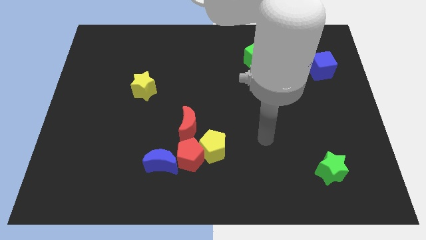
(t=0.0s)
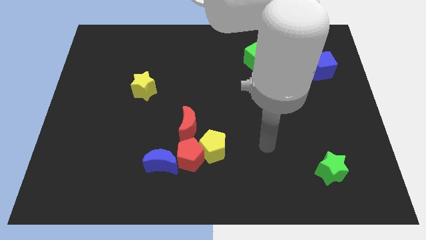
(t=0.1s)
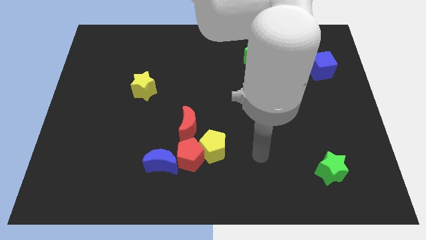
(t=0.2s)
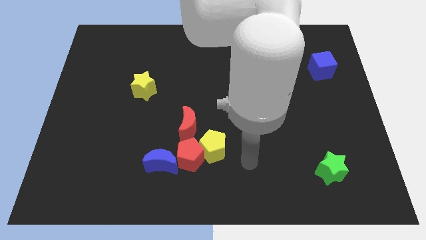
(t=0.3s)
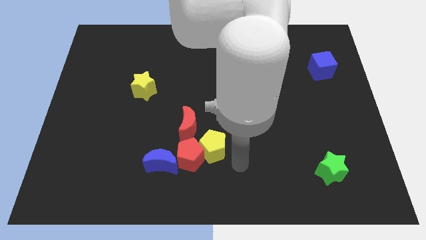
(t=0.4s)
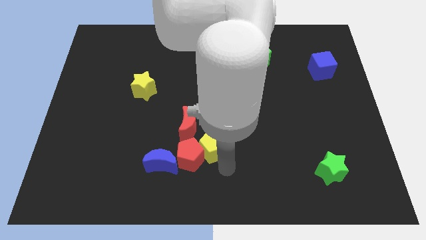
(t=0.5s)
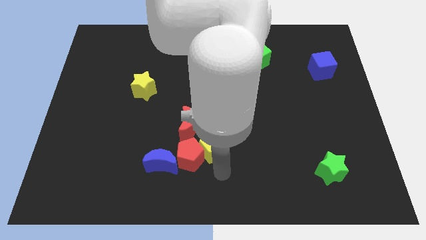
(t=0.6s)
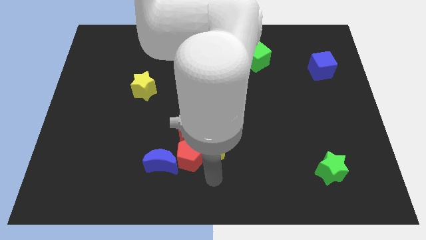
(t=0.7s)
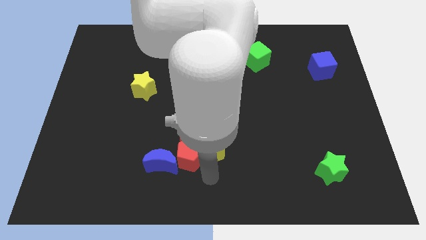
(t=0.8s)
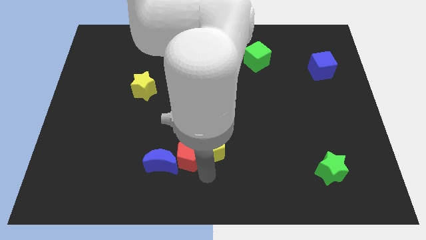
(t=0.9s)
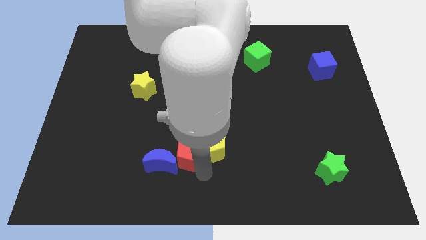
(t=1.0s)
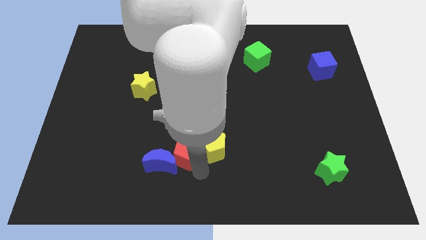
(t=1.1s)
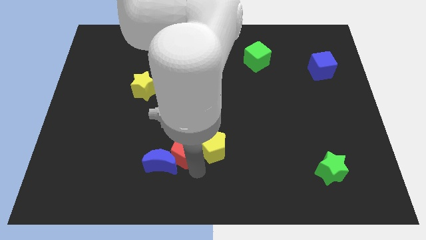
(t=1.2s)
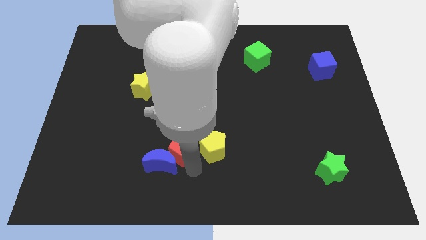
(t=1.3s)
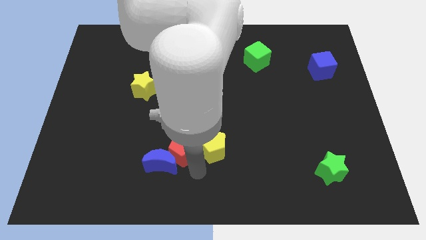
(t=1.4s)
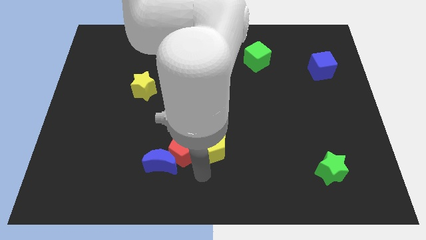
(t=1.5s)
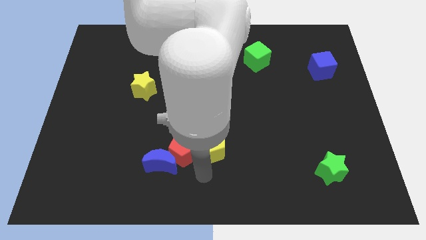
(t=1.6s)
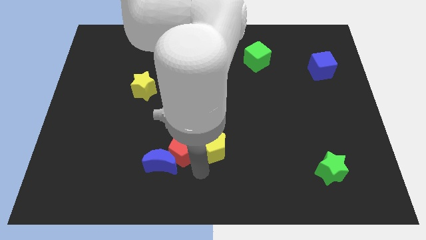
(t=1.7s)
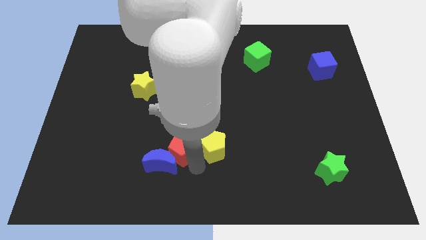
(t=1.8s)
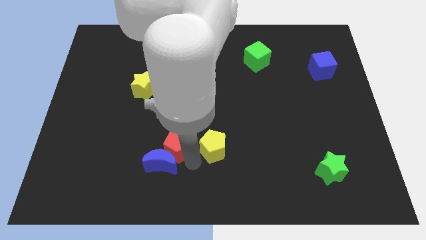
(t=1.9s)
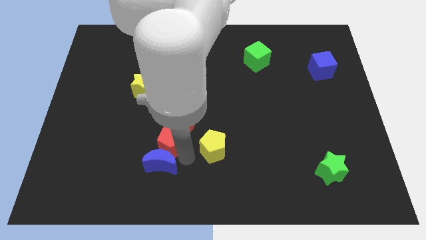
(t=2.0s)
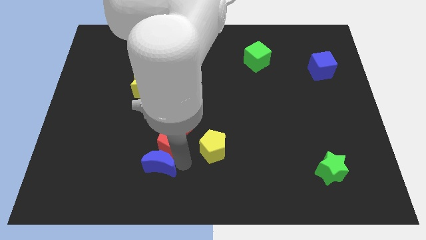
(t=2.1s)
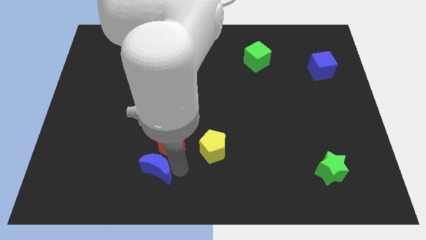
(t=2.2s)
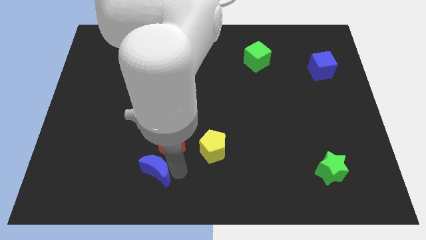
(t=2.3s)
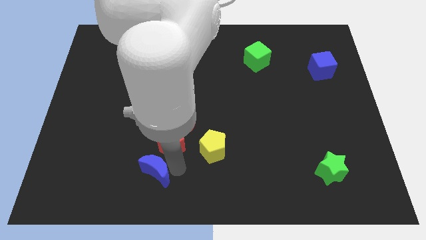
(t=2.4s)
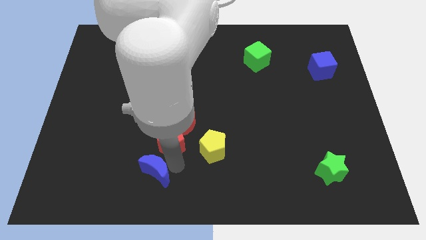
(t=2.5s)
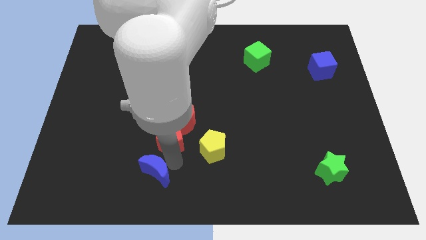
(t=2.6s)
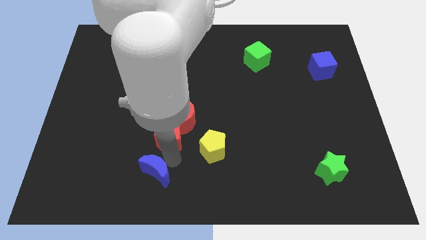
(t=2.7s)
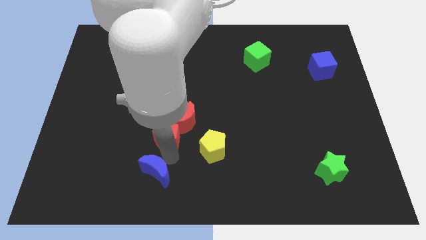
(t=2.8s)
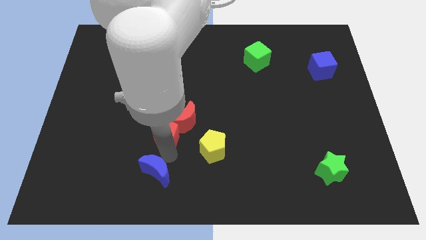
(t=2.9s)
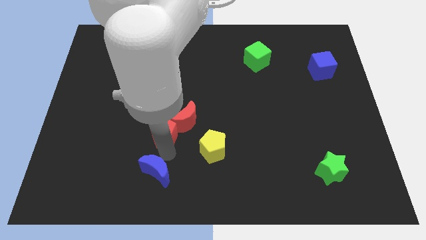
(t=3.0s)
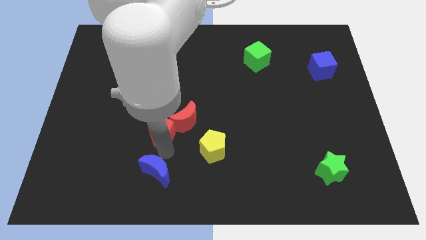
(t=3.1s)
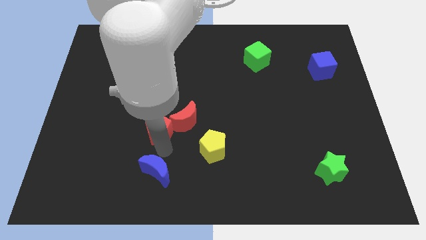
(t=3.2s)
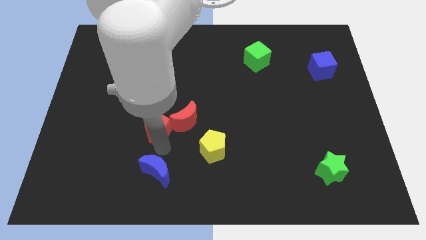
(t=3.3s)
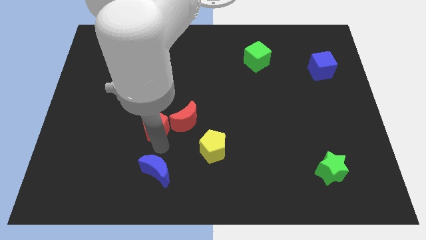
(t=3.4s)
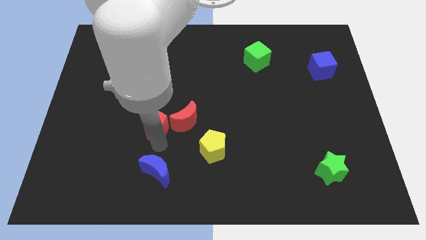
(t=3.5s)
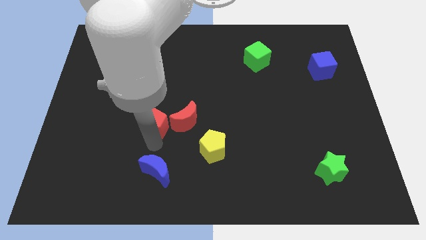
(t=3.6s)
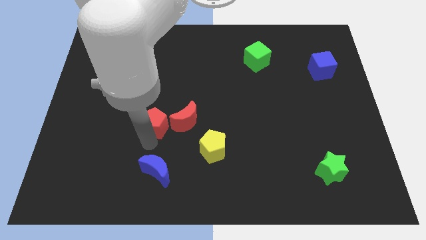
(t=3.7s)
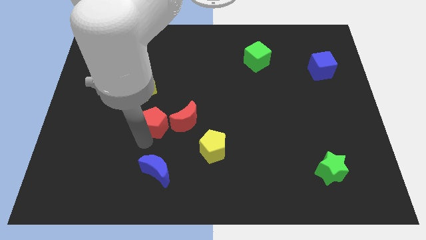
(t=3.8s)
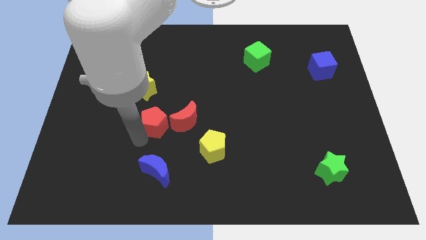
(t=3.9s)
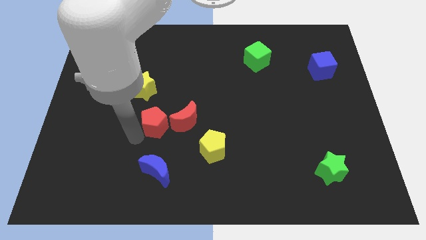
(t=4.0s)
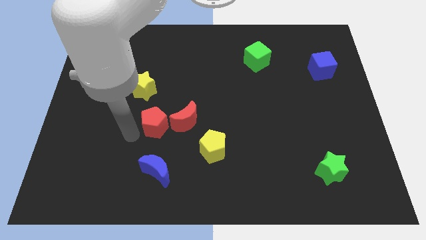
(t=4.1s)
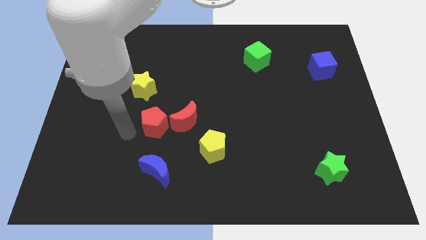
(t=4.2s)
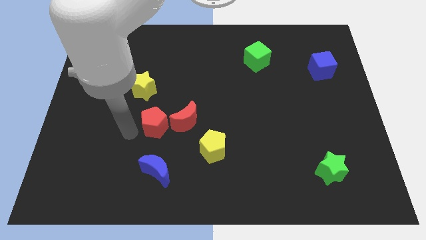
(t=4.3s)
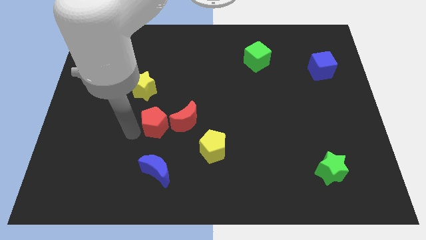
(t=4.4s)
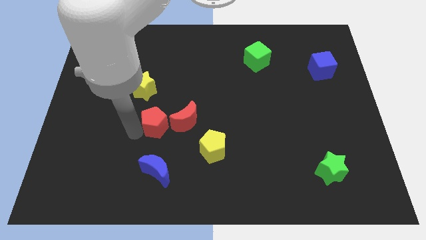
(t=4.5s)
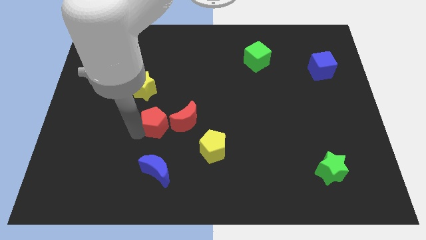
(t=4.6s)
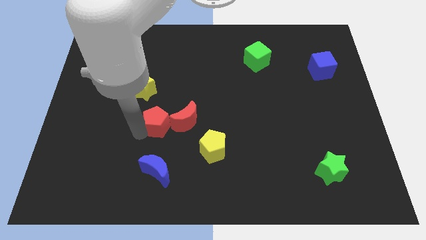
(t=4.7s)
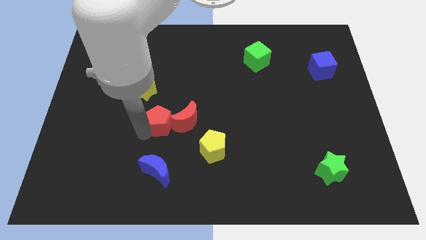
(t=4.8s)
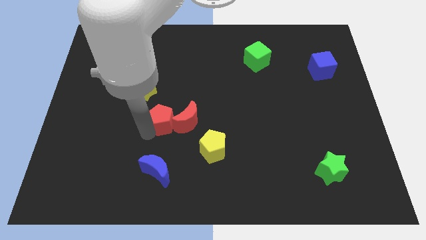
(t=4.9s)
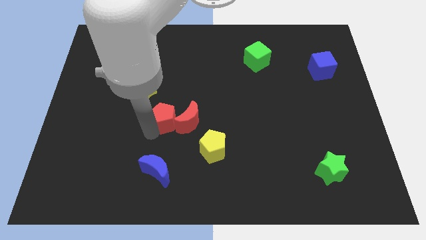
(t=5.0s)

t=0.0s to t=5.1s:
put the red pentagon to the center

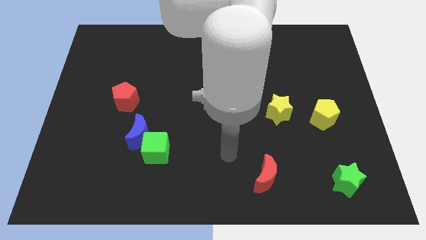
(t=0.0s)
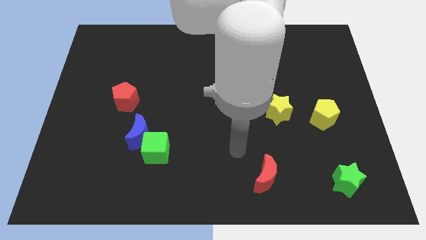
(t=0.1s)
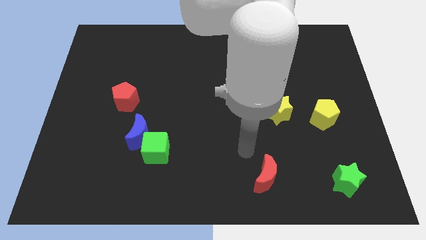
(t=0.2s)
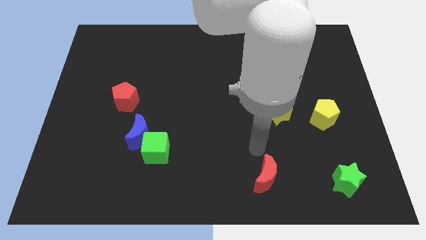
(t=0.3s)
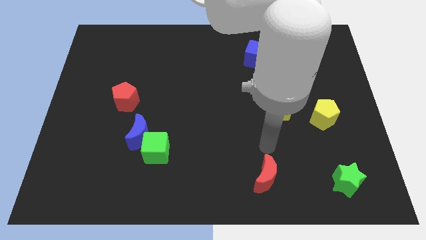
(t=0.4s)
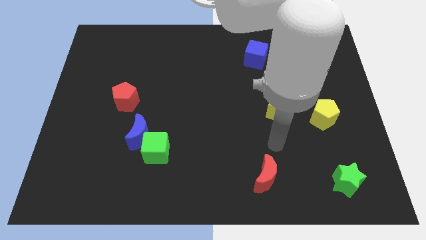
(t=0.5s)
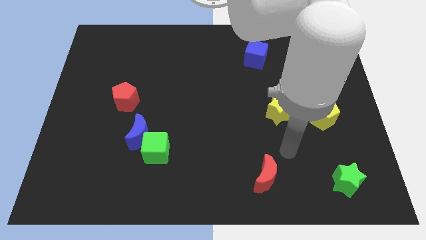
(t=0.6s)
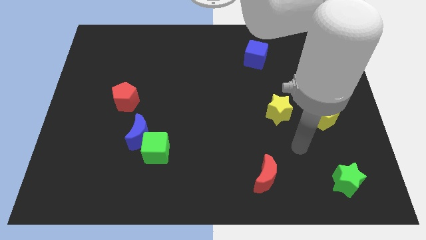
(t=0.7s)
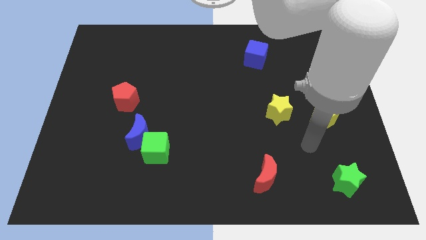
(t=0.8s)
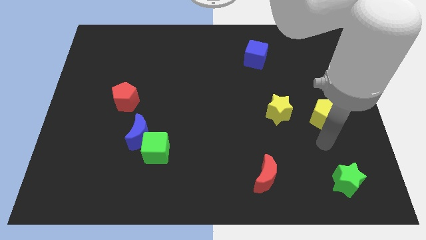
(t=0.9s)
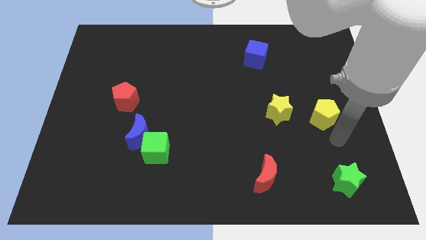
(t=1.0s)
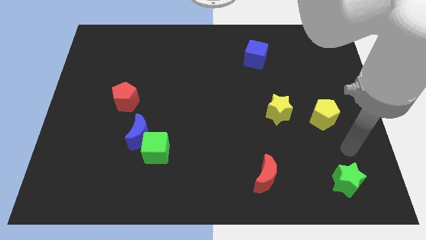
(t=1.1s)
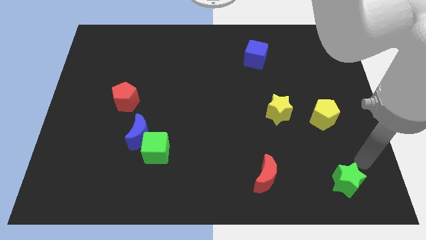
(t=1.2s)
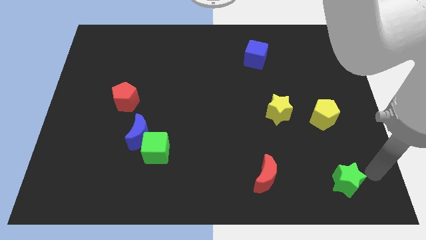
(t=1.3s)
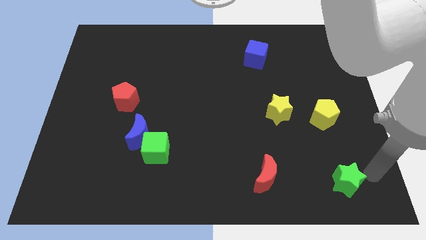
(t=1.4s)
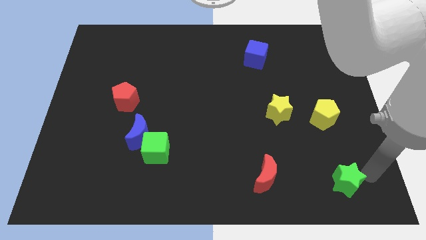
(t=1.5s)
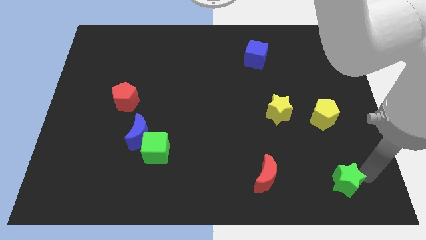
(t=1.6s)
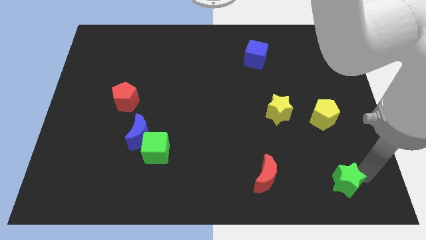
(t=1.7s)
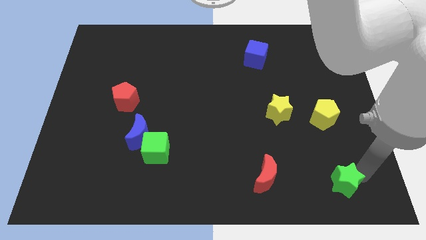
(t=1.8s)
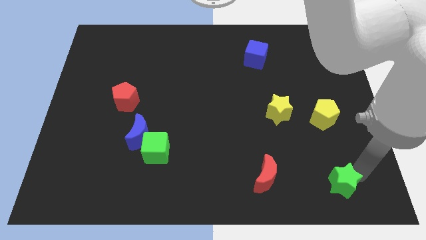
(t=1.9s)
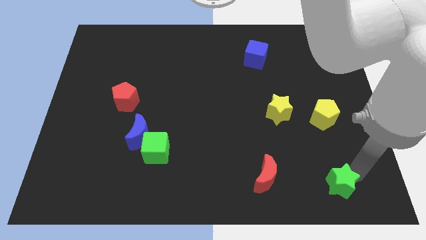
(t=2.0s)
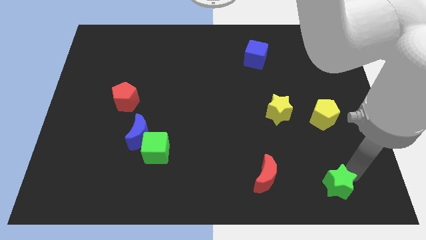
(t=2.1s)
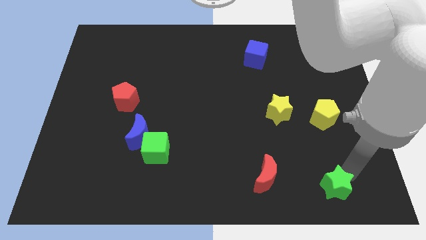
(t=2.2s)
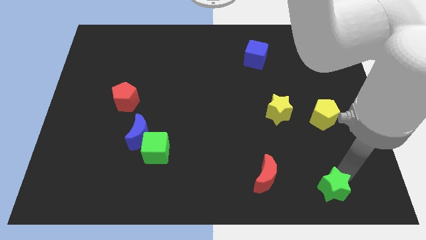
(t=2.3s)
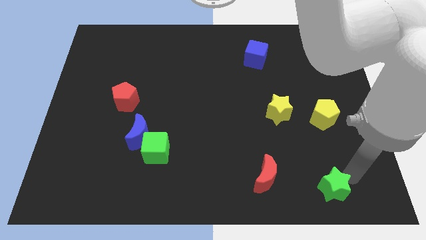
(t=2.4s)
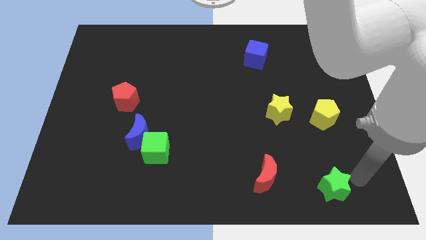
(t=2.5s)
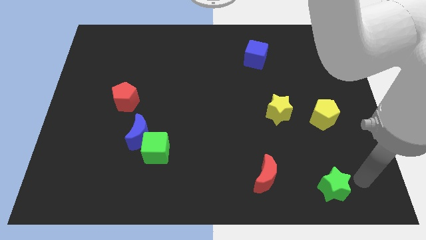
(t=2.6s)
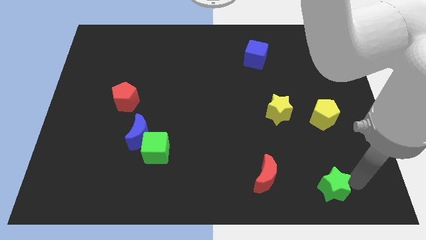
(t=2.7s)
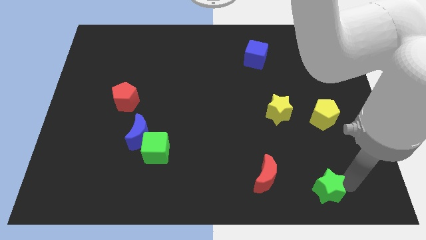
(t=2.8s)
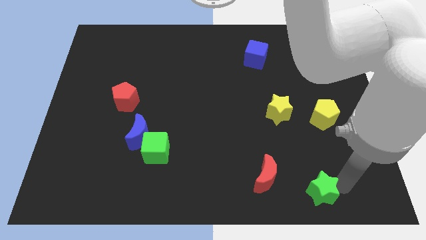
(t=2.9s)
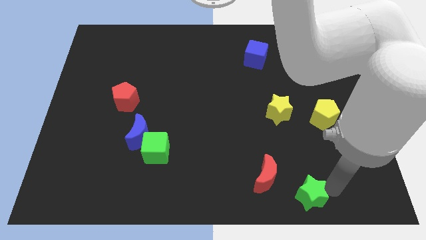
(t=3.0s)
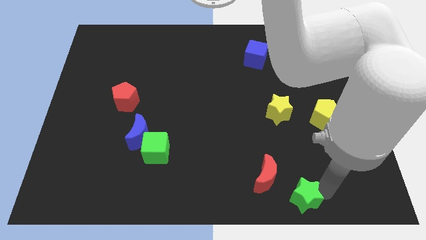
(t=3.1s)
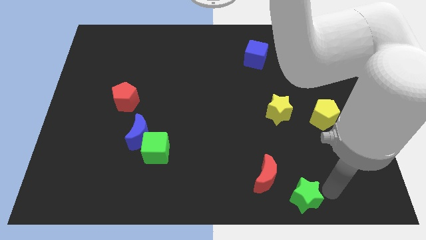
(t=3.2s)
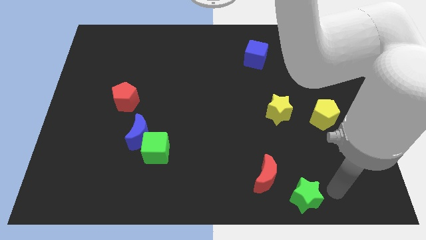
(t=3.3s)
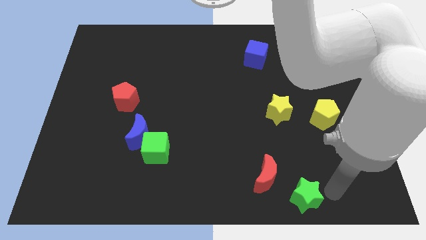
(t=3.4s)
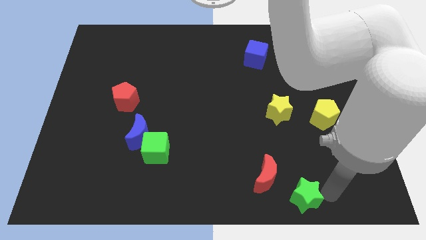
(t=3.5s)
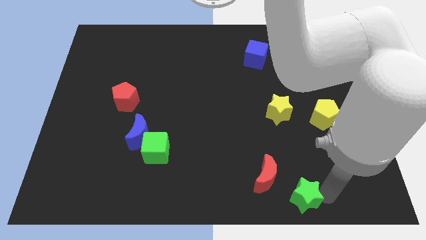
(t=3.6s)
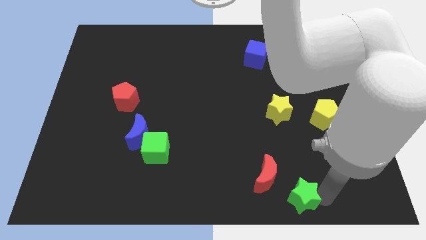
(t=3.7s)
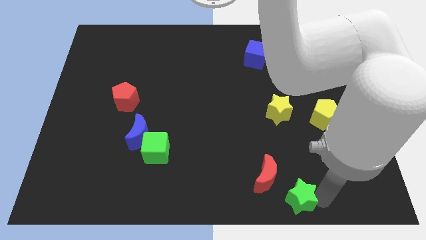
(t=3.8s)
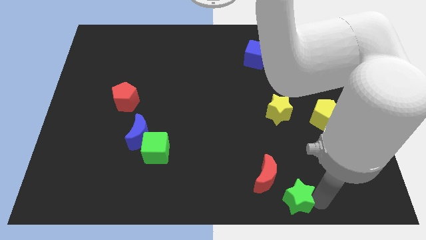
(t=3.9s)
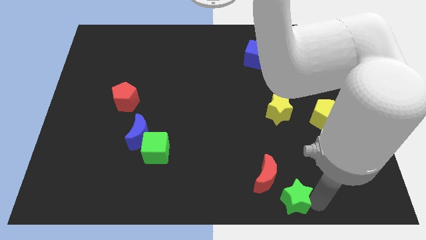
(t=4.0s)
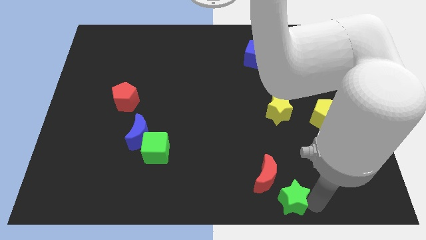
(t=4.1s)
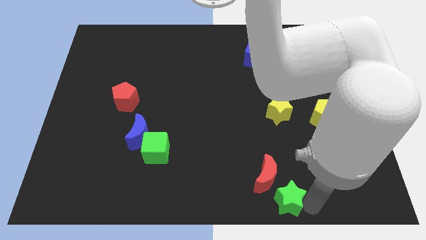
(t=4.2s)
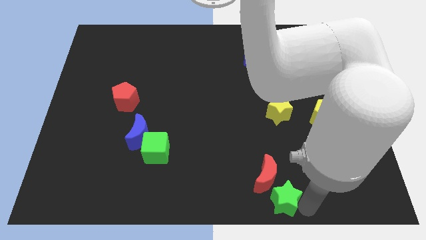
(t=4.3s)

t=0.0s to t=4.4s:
push the green star to the bottom side
